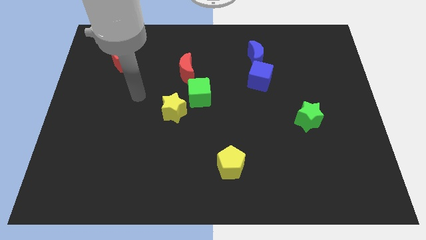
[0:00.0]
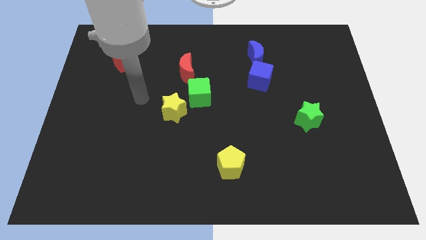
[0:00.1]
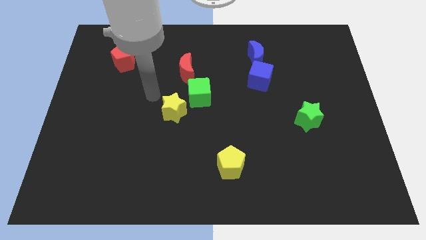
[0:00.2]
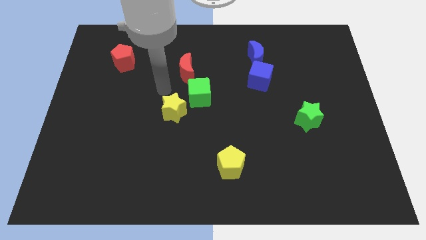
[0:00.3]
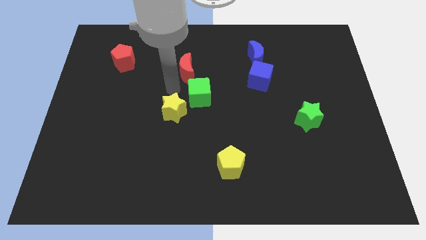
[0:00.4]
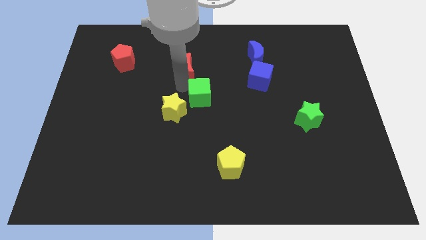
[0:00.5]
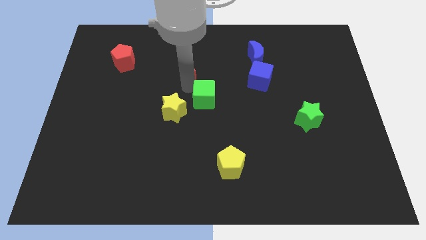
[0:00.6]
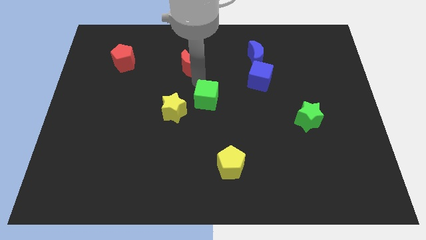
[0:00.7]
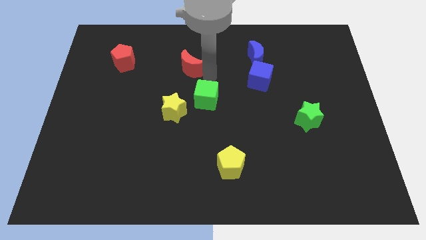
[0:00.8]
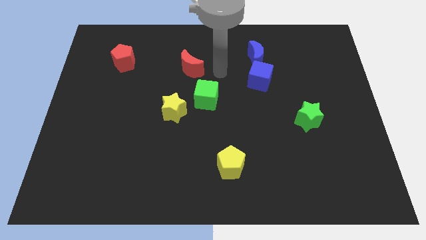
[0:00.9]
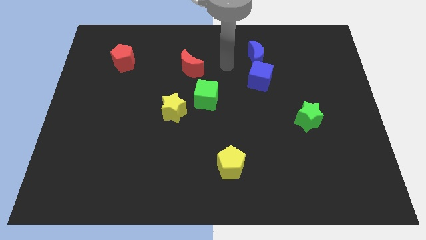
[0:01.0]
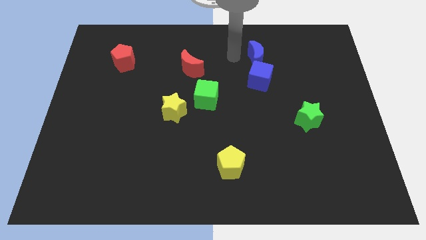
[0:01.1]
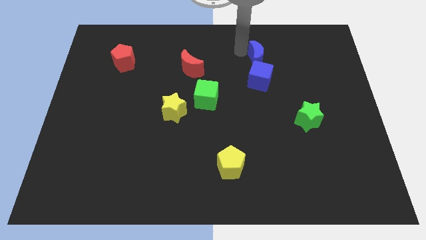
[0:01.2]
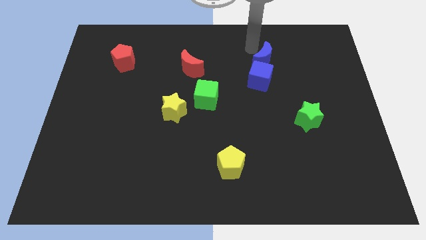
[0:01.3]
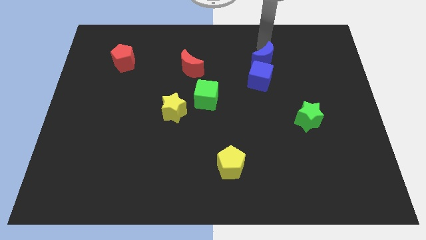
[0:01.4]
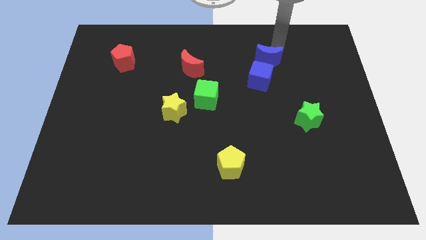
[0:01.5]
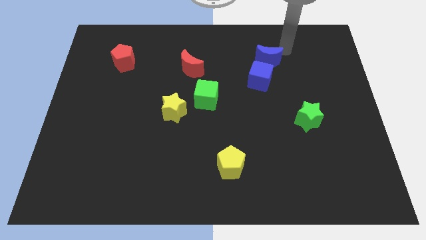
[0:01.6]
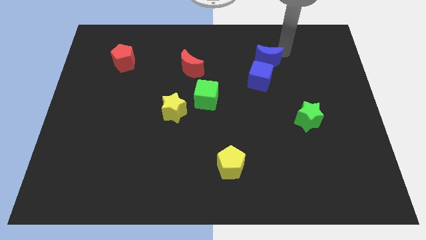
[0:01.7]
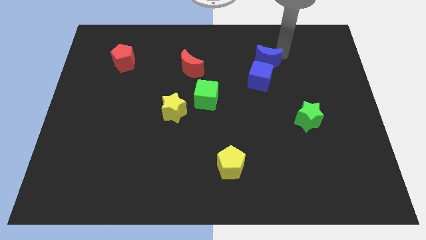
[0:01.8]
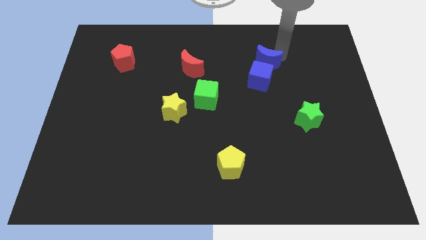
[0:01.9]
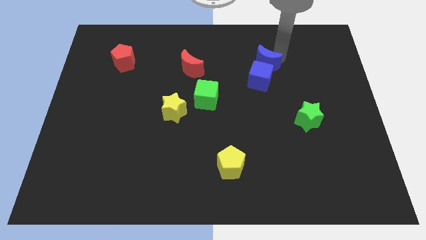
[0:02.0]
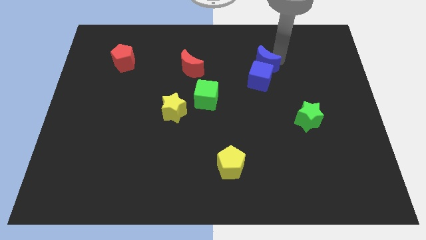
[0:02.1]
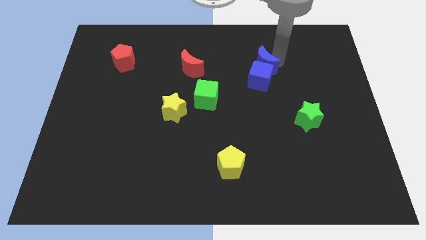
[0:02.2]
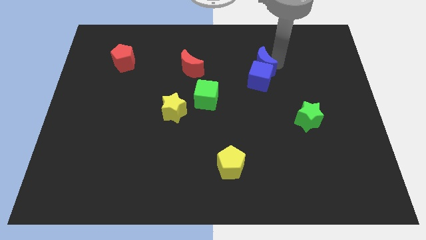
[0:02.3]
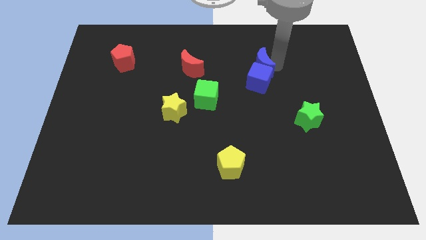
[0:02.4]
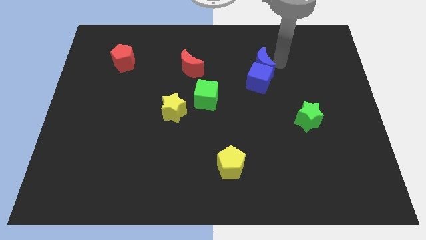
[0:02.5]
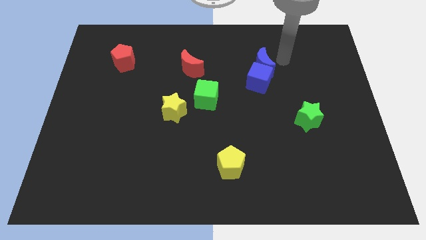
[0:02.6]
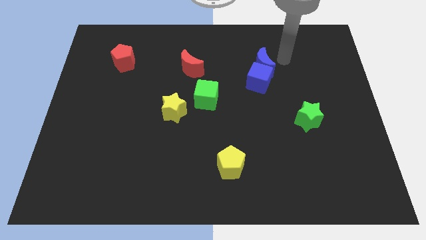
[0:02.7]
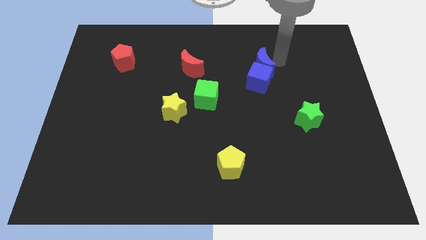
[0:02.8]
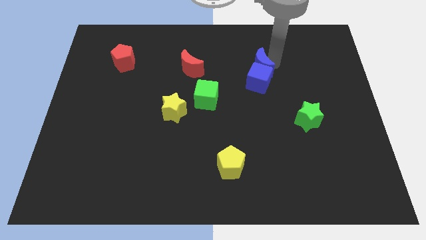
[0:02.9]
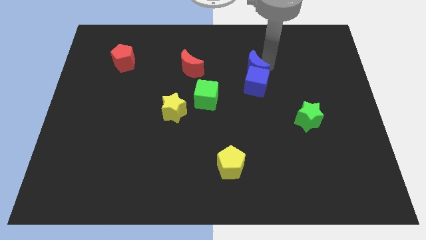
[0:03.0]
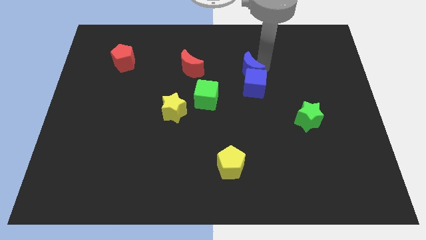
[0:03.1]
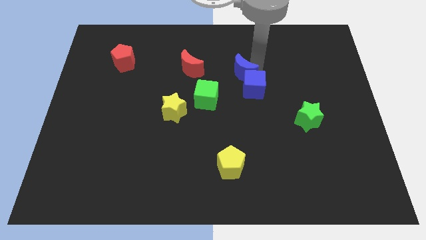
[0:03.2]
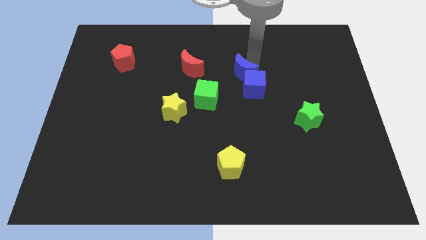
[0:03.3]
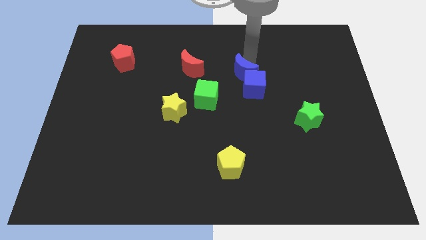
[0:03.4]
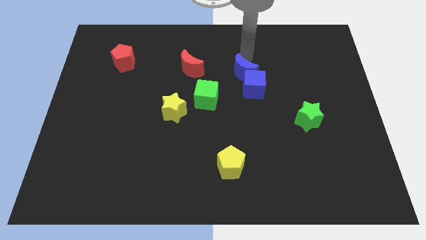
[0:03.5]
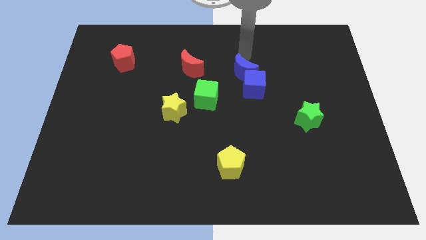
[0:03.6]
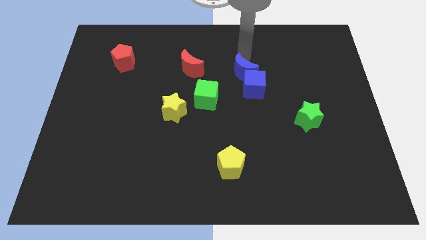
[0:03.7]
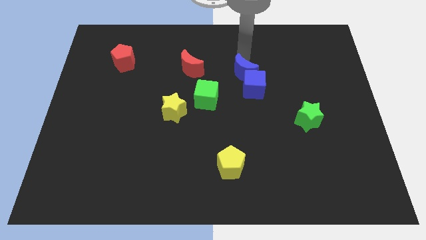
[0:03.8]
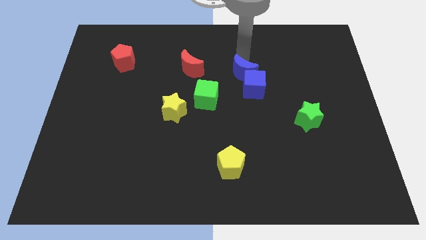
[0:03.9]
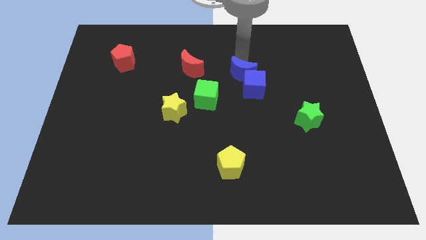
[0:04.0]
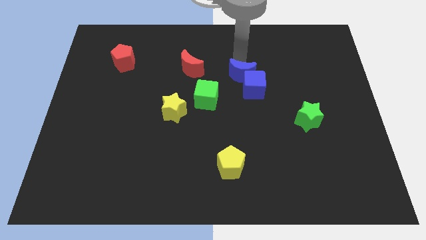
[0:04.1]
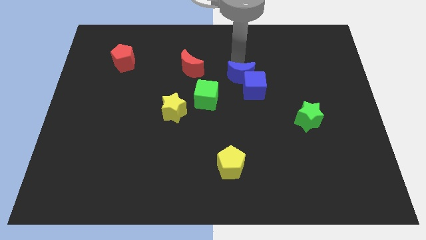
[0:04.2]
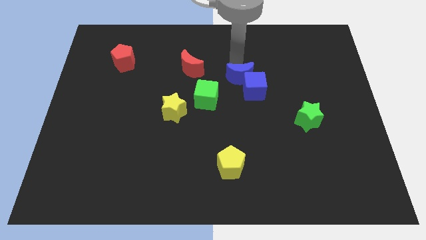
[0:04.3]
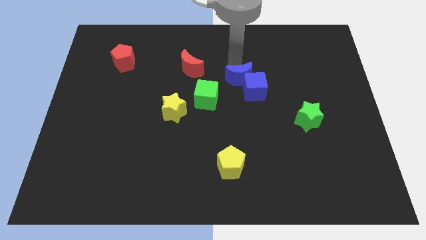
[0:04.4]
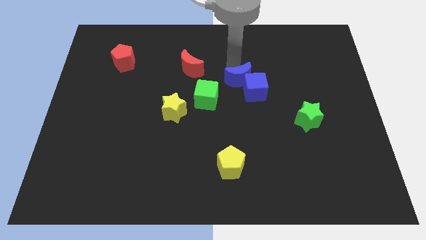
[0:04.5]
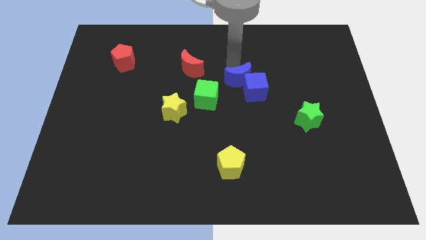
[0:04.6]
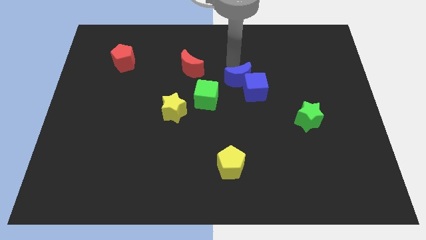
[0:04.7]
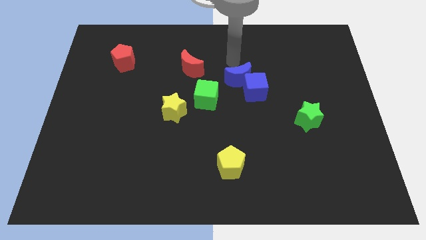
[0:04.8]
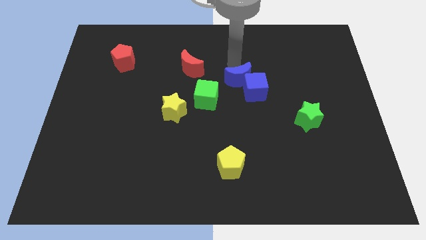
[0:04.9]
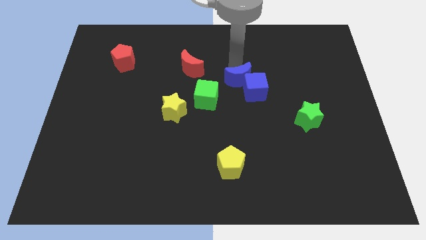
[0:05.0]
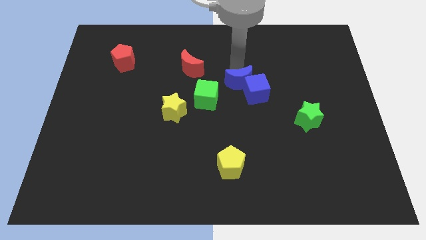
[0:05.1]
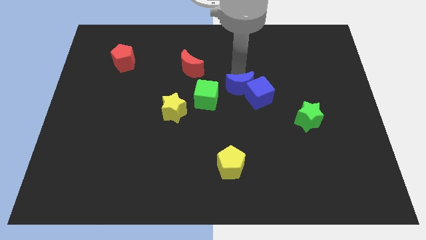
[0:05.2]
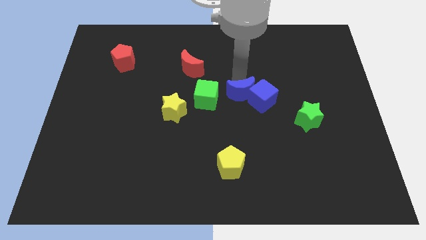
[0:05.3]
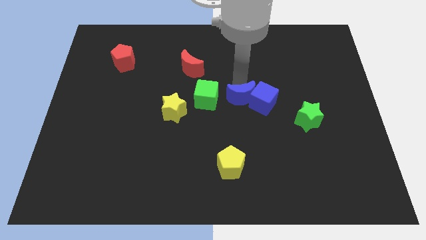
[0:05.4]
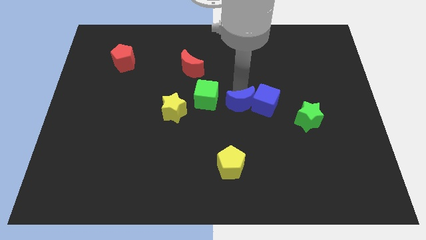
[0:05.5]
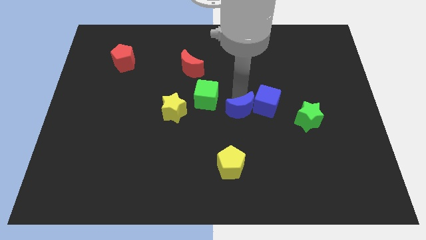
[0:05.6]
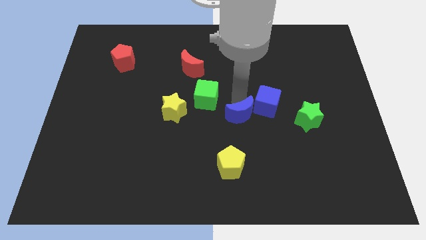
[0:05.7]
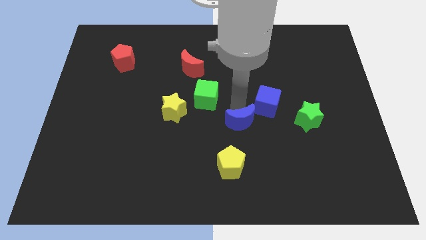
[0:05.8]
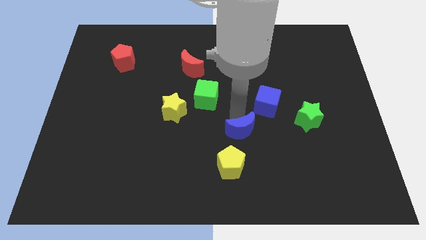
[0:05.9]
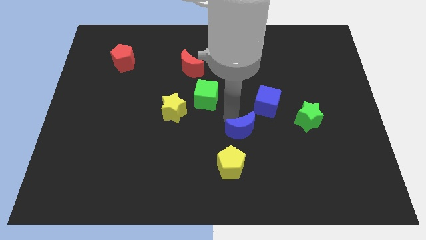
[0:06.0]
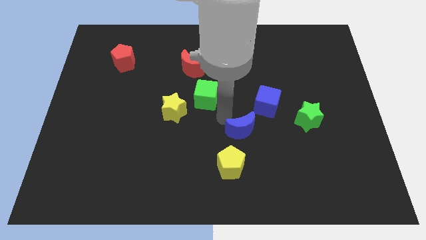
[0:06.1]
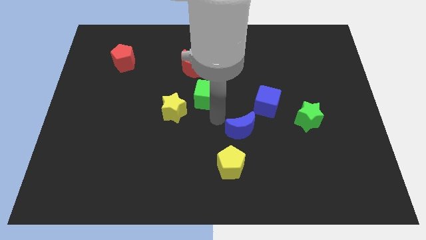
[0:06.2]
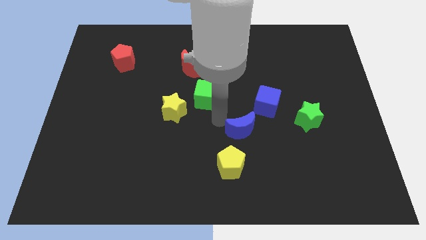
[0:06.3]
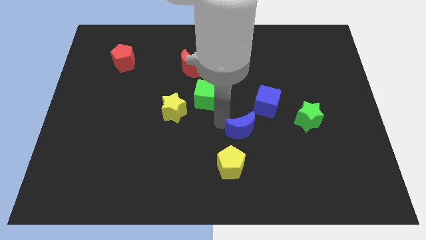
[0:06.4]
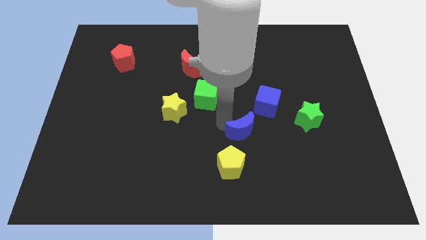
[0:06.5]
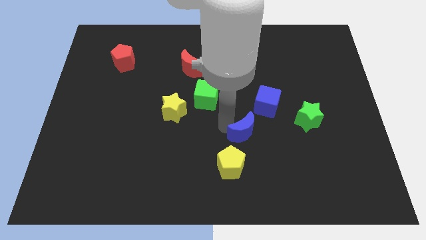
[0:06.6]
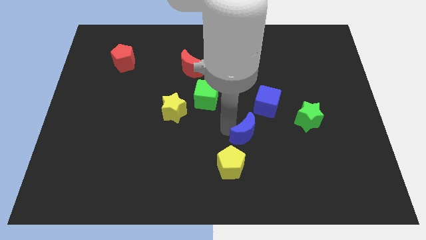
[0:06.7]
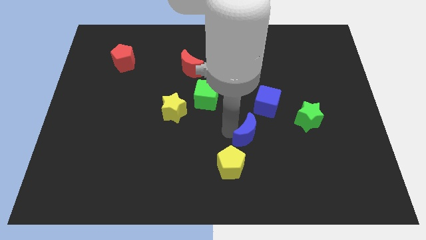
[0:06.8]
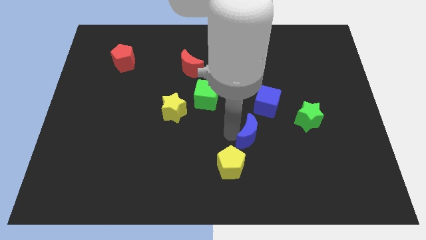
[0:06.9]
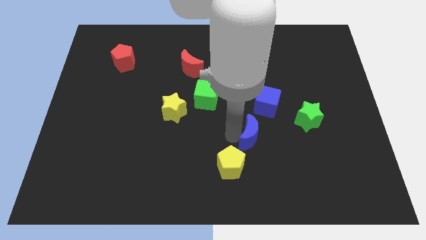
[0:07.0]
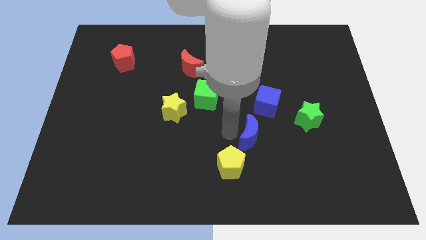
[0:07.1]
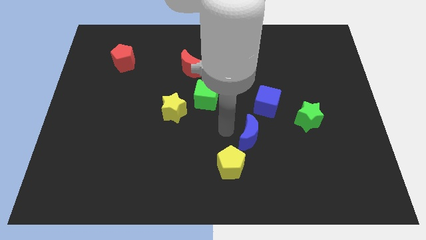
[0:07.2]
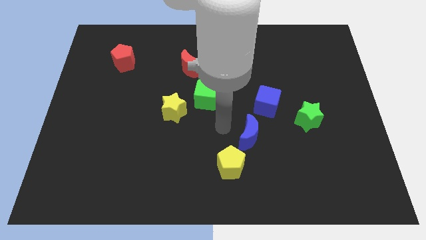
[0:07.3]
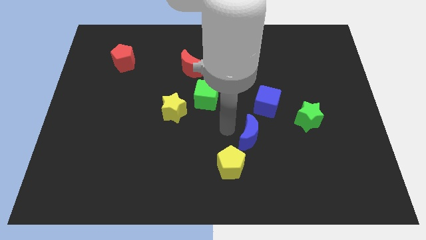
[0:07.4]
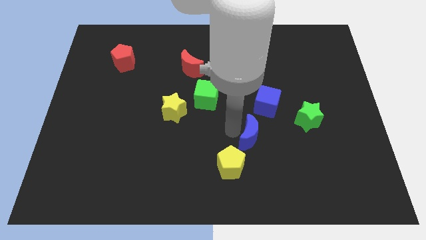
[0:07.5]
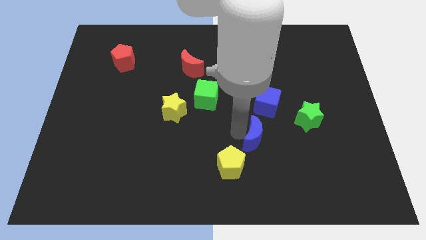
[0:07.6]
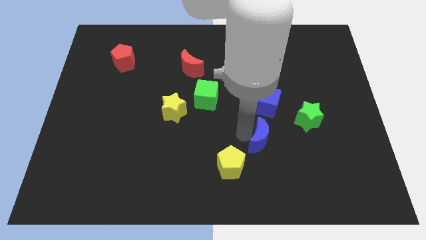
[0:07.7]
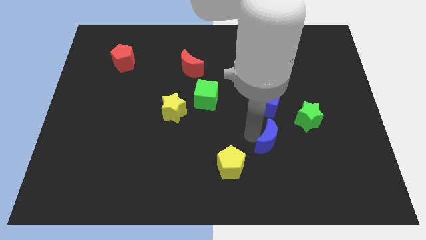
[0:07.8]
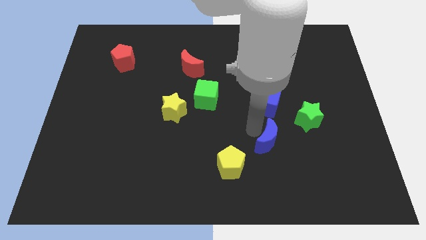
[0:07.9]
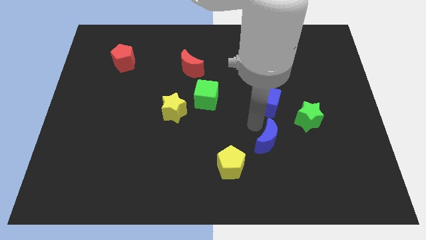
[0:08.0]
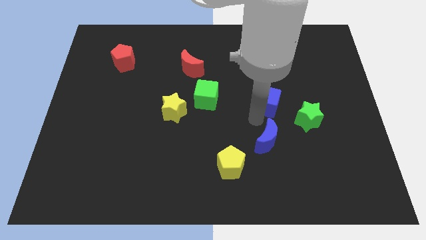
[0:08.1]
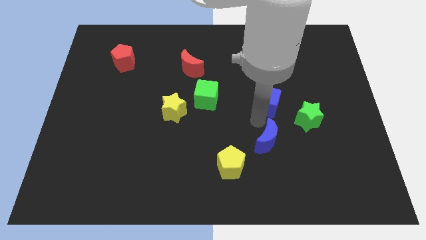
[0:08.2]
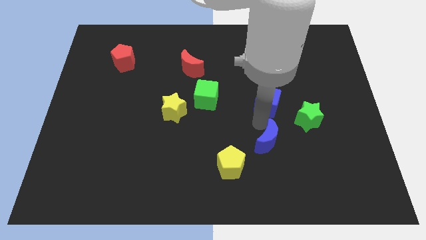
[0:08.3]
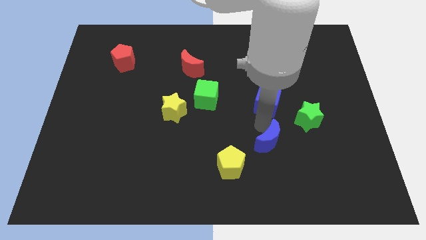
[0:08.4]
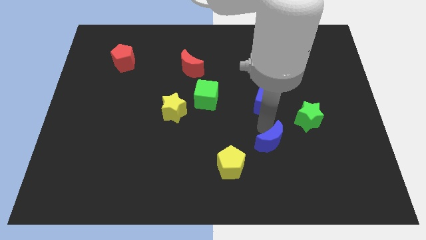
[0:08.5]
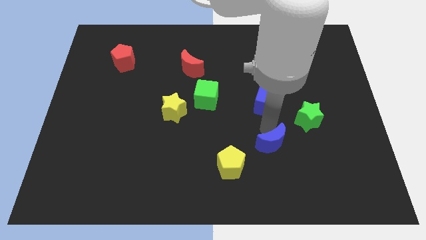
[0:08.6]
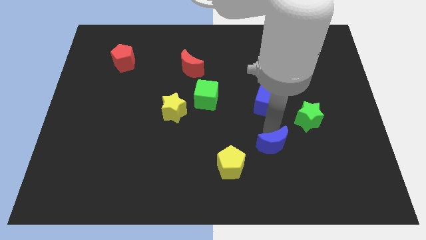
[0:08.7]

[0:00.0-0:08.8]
move the blue moon to the right side of the yellow pentagon
